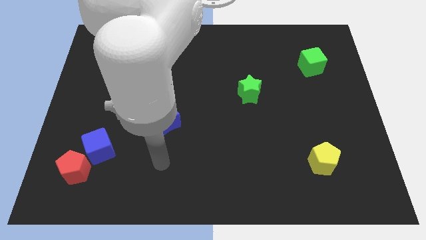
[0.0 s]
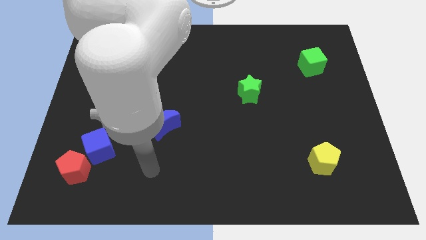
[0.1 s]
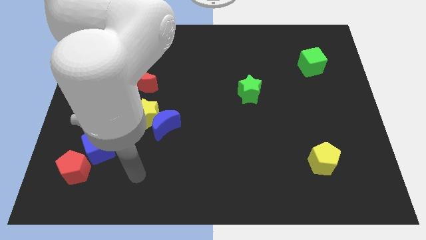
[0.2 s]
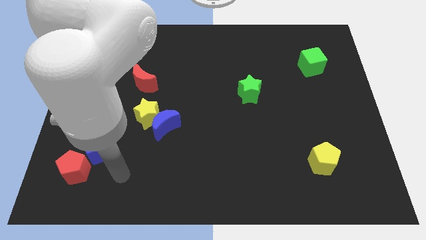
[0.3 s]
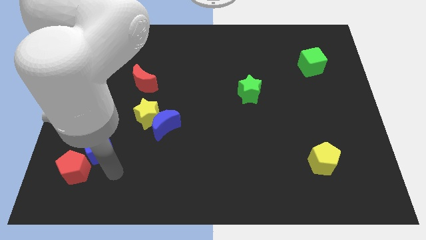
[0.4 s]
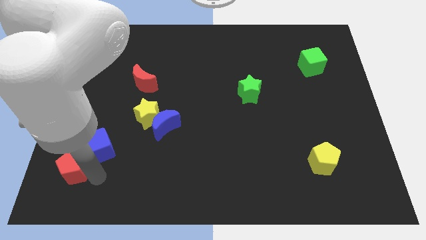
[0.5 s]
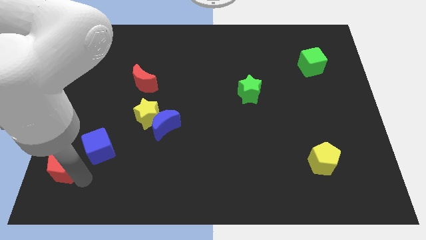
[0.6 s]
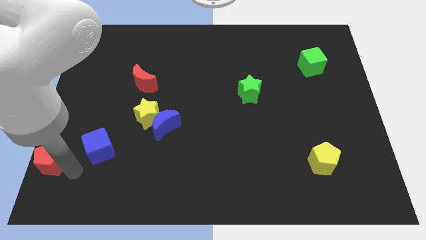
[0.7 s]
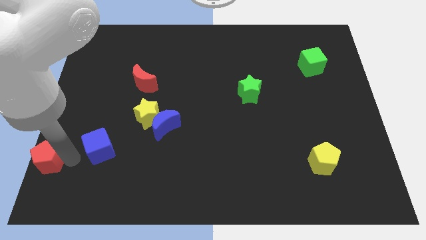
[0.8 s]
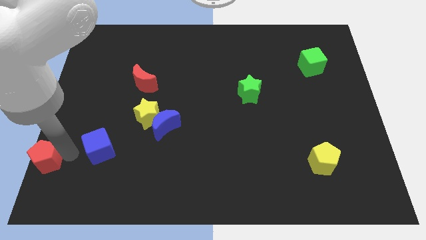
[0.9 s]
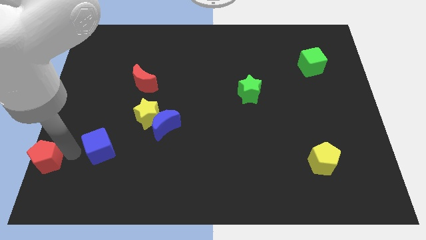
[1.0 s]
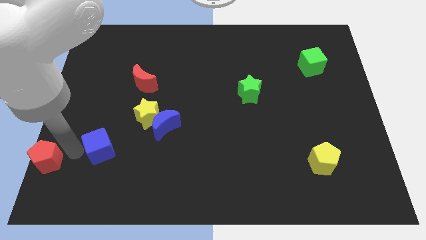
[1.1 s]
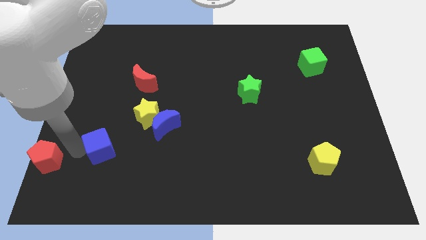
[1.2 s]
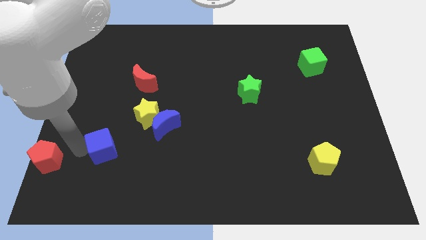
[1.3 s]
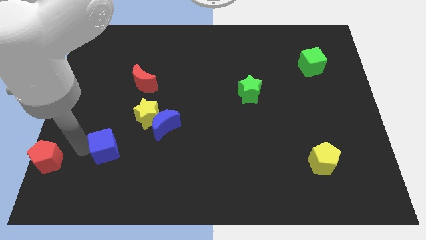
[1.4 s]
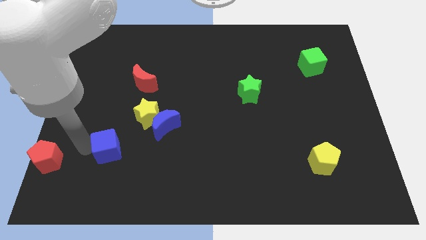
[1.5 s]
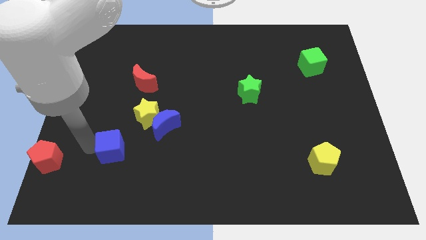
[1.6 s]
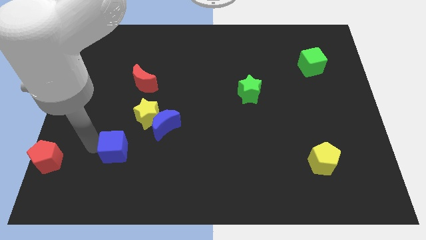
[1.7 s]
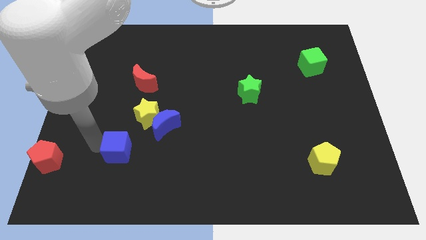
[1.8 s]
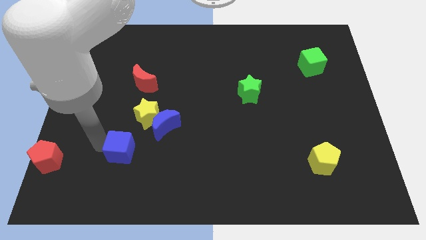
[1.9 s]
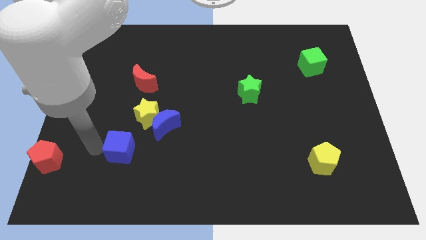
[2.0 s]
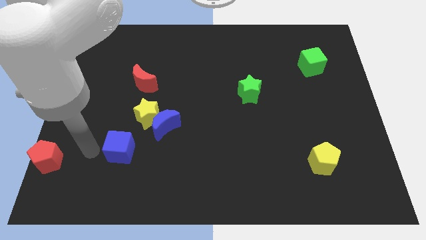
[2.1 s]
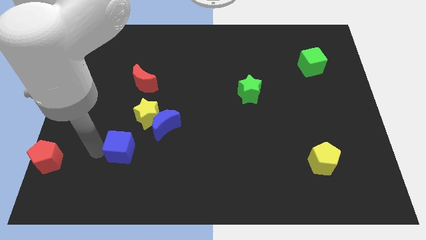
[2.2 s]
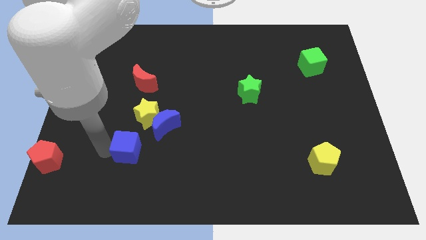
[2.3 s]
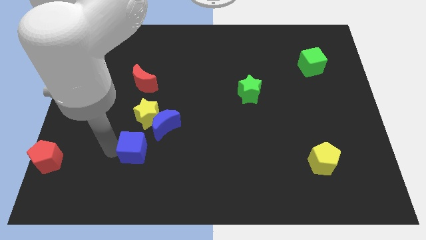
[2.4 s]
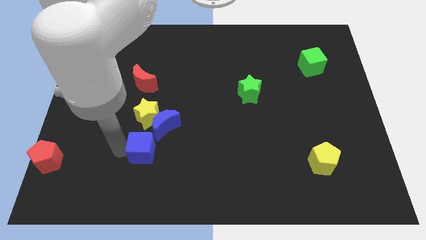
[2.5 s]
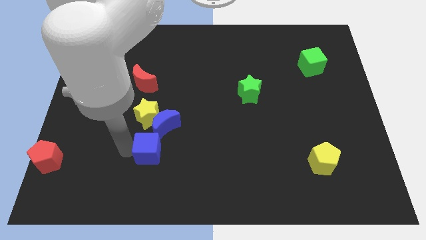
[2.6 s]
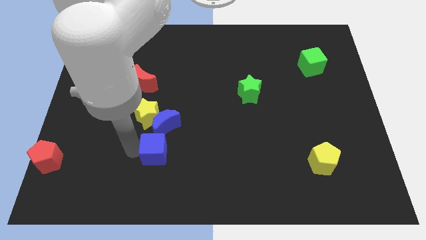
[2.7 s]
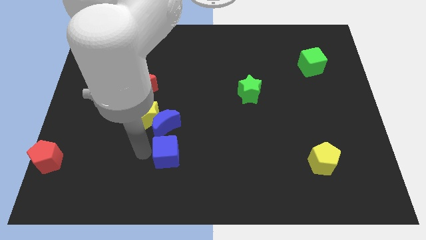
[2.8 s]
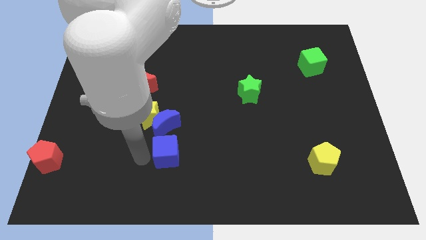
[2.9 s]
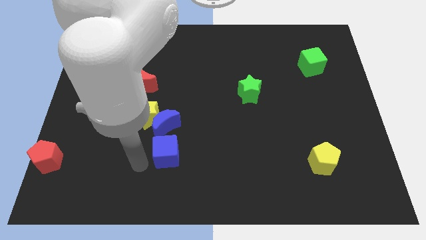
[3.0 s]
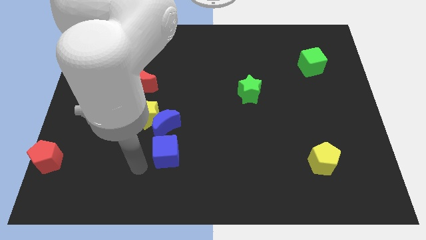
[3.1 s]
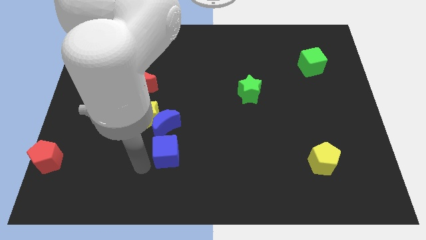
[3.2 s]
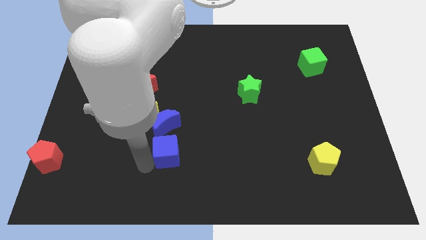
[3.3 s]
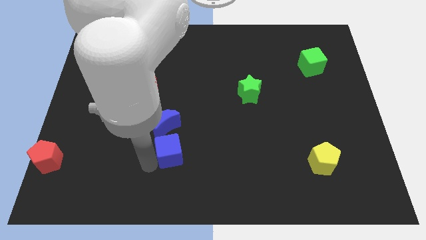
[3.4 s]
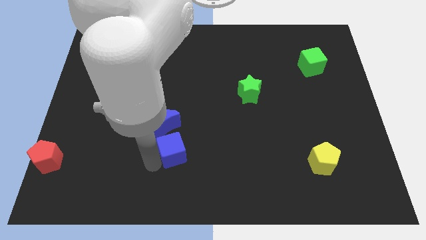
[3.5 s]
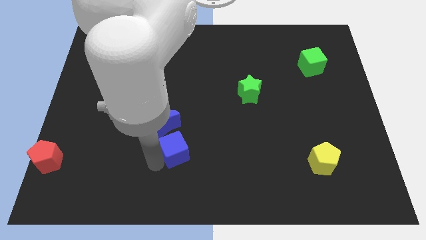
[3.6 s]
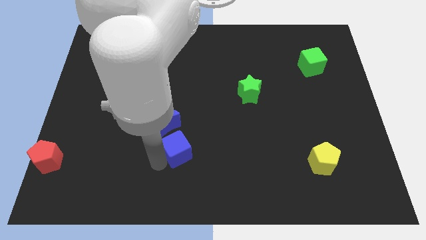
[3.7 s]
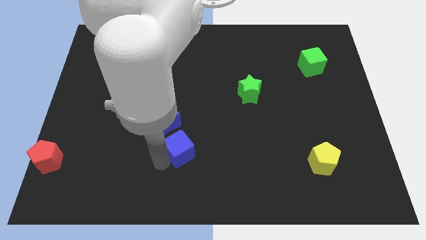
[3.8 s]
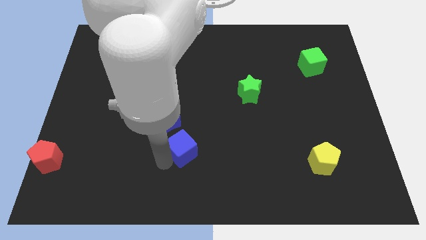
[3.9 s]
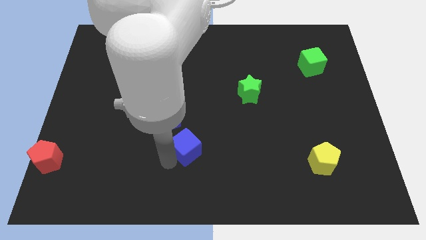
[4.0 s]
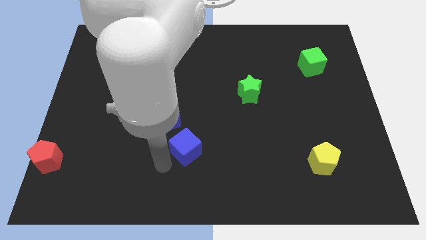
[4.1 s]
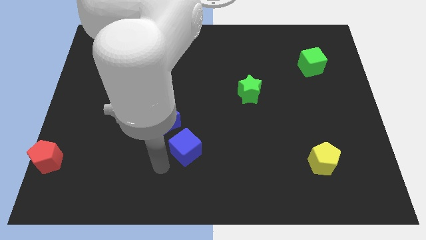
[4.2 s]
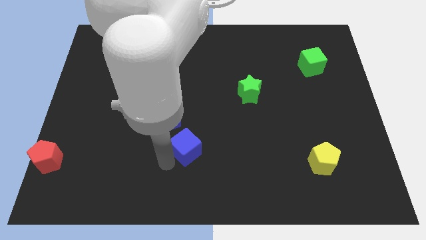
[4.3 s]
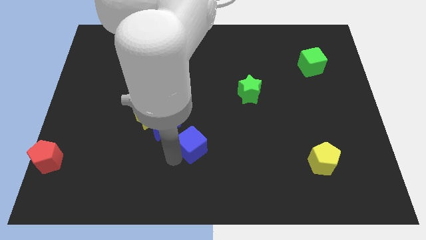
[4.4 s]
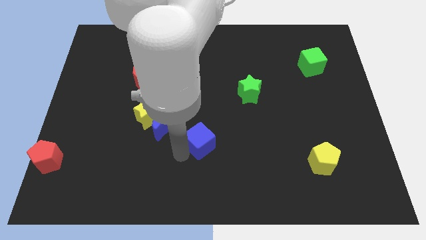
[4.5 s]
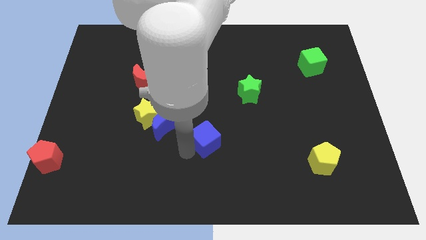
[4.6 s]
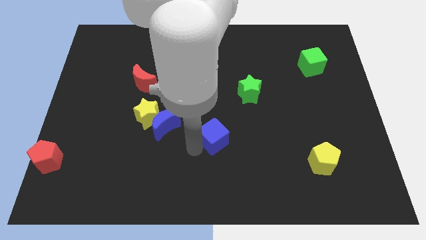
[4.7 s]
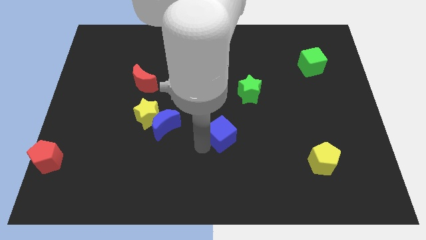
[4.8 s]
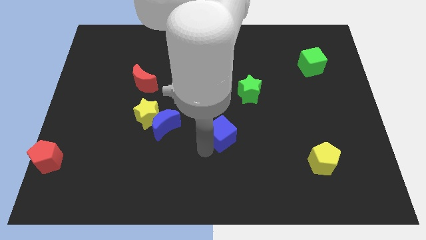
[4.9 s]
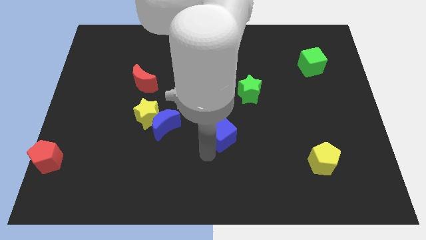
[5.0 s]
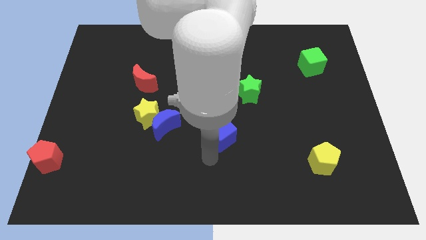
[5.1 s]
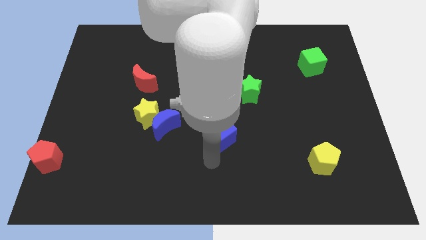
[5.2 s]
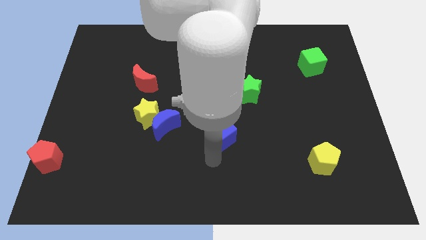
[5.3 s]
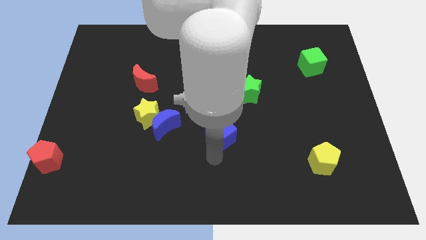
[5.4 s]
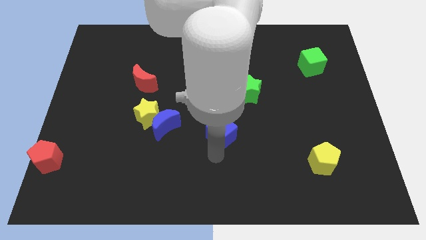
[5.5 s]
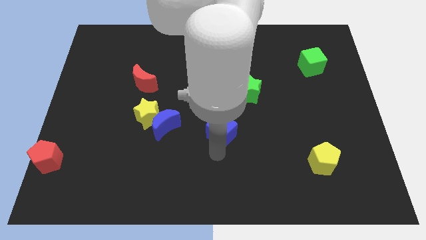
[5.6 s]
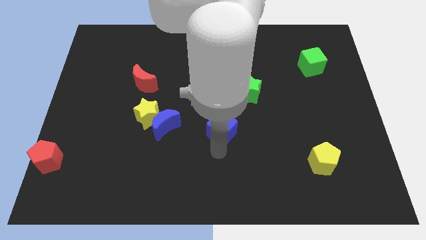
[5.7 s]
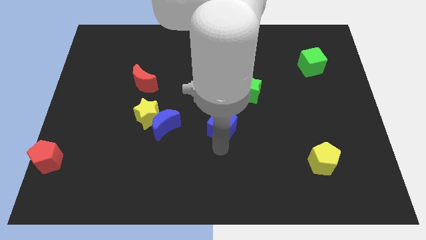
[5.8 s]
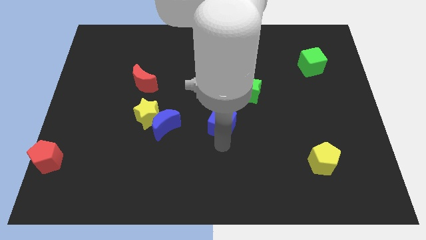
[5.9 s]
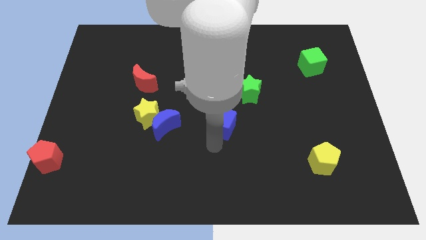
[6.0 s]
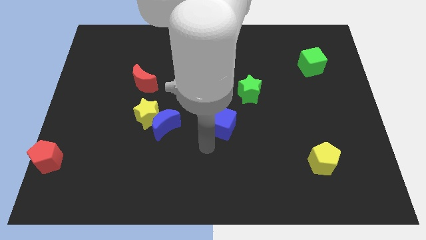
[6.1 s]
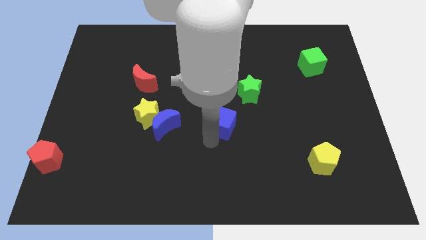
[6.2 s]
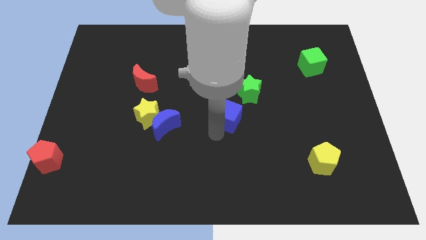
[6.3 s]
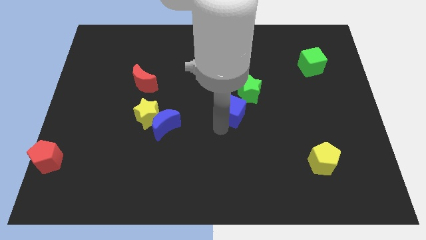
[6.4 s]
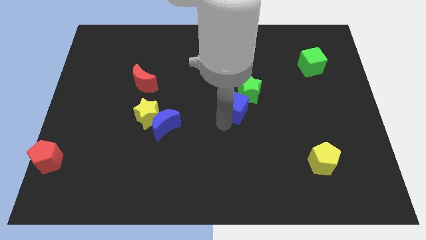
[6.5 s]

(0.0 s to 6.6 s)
slide the blue cube next to the green star
